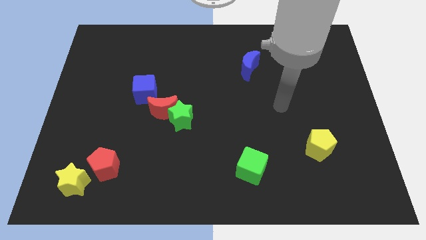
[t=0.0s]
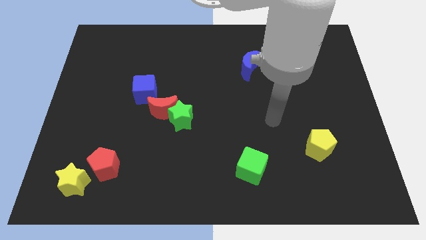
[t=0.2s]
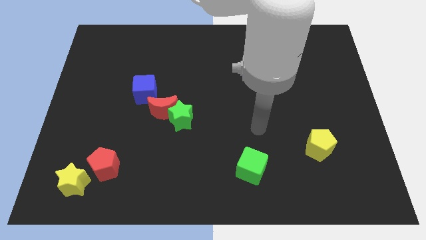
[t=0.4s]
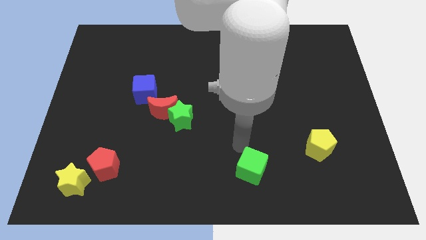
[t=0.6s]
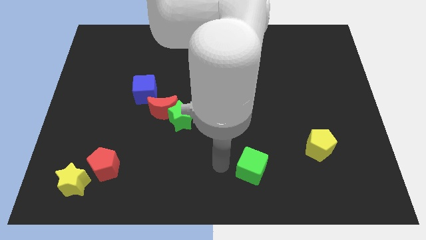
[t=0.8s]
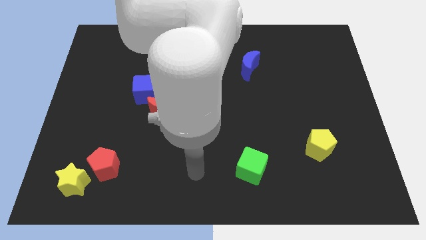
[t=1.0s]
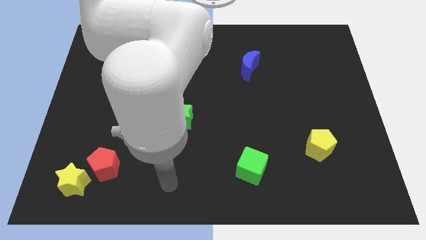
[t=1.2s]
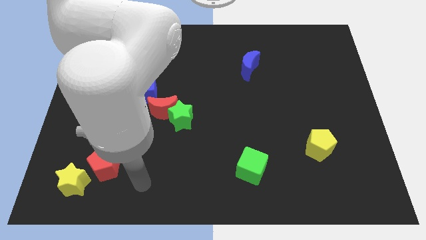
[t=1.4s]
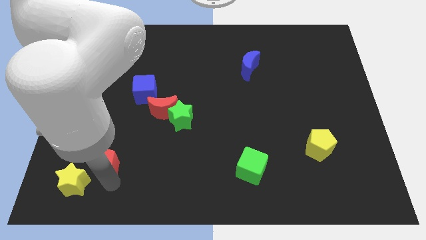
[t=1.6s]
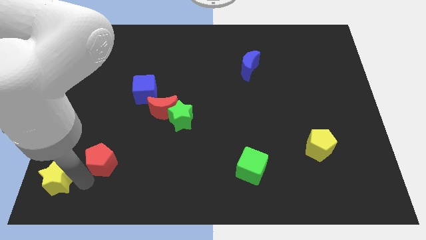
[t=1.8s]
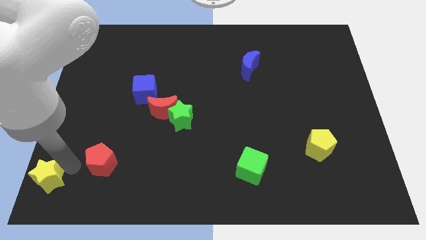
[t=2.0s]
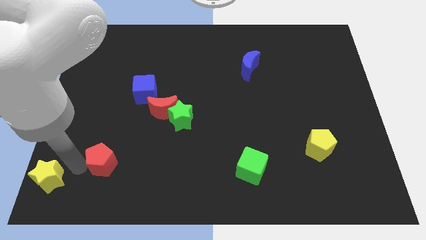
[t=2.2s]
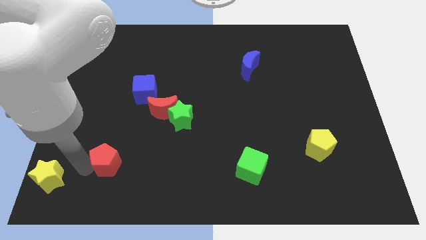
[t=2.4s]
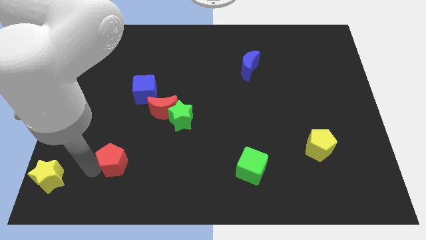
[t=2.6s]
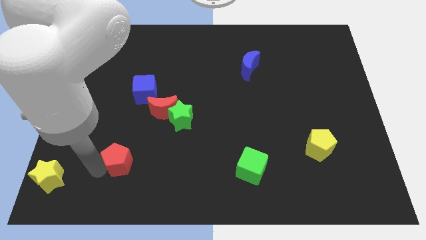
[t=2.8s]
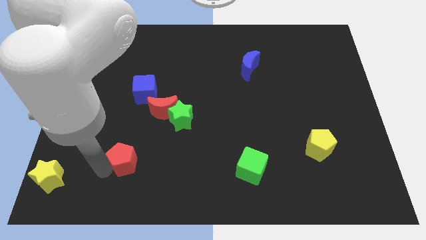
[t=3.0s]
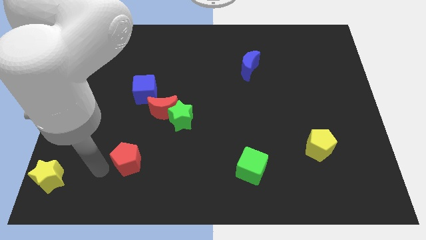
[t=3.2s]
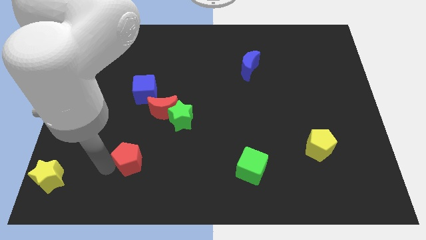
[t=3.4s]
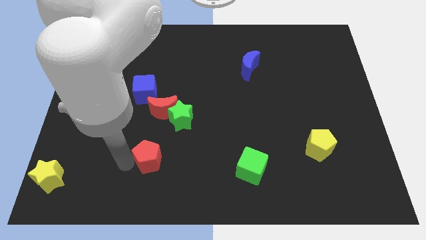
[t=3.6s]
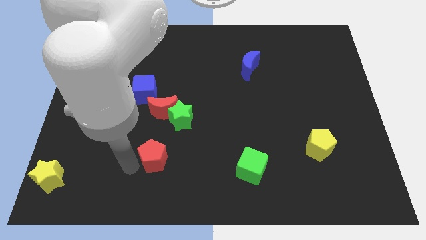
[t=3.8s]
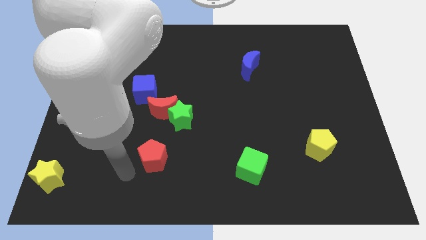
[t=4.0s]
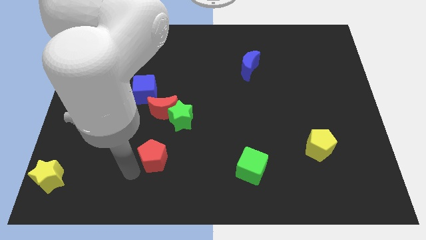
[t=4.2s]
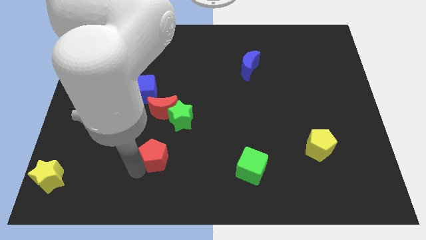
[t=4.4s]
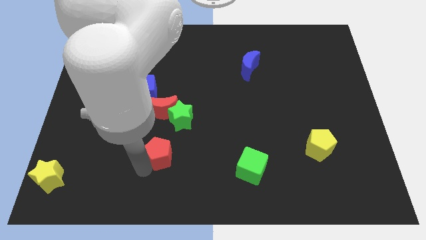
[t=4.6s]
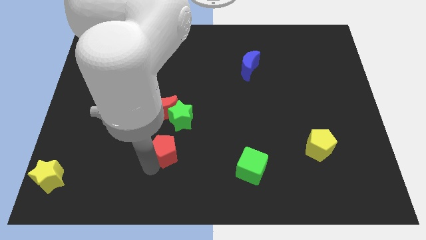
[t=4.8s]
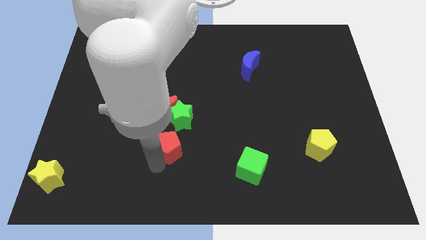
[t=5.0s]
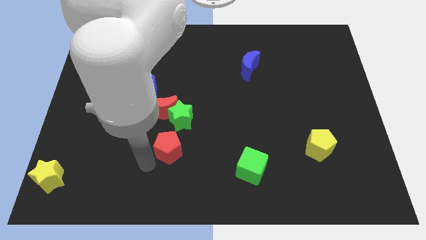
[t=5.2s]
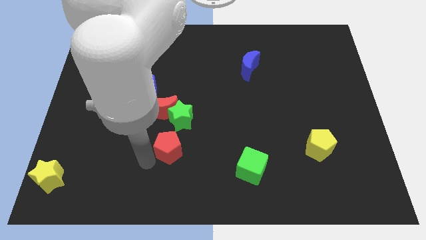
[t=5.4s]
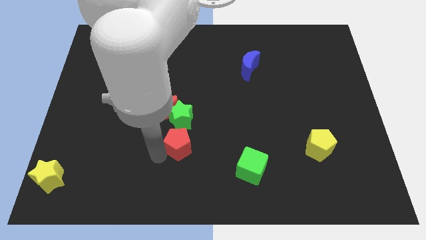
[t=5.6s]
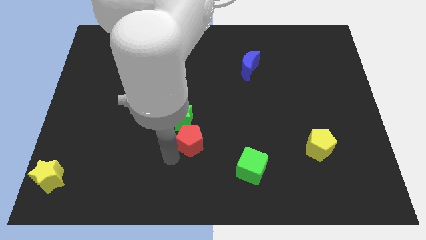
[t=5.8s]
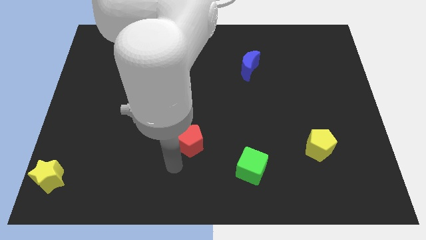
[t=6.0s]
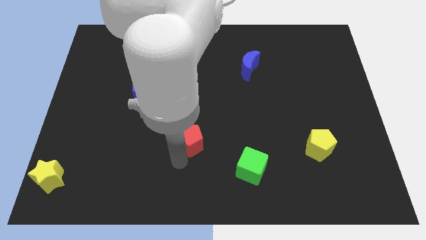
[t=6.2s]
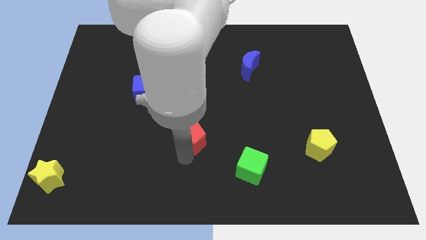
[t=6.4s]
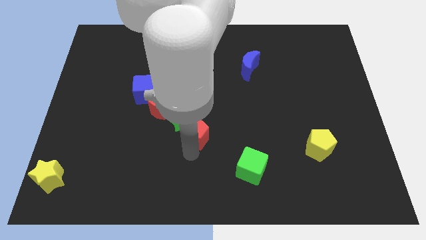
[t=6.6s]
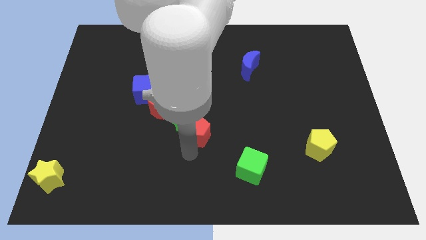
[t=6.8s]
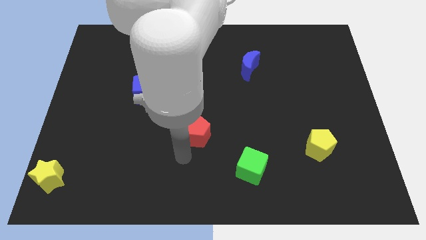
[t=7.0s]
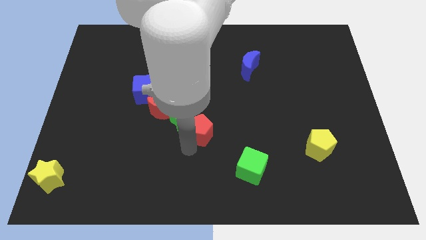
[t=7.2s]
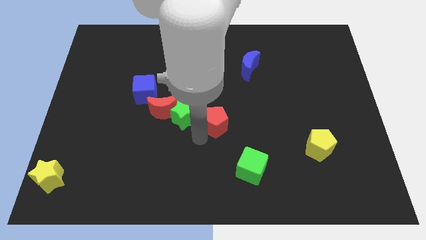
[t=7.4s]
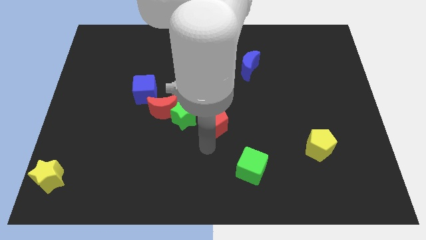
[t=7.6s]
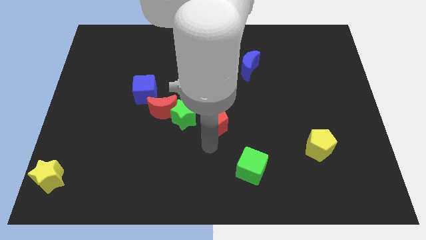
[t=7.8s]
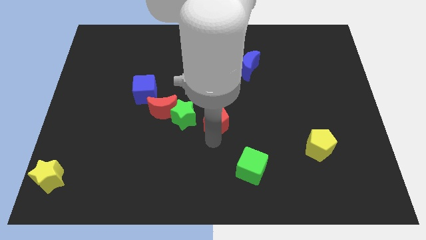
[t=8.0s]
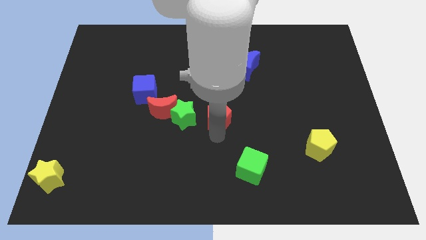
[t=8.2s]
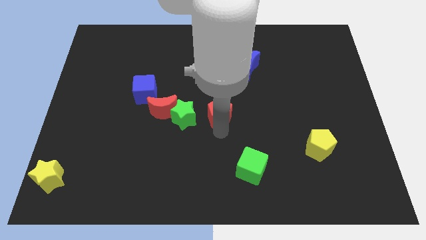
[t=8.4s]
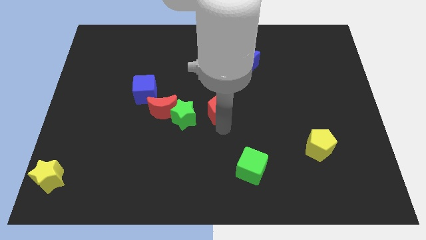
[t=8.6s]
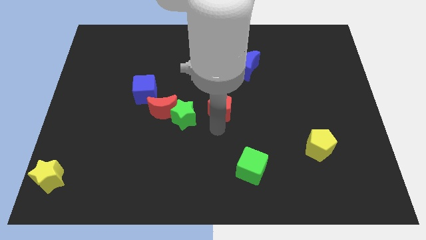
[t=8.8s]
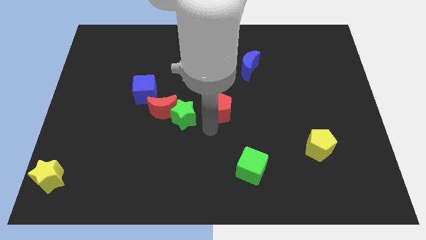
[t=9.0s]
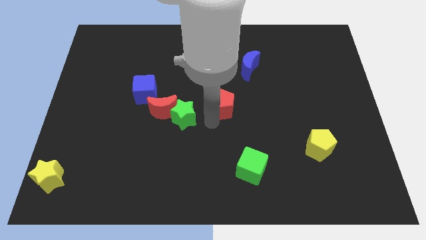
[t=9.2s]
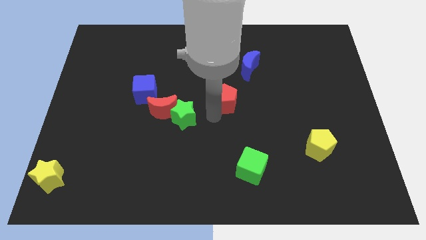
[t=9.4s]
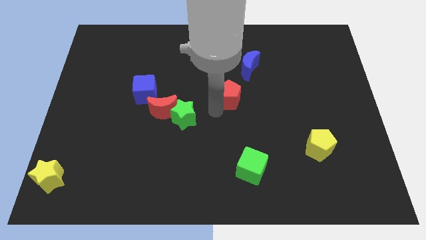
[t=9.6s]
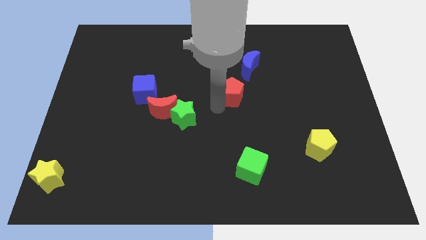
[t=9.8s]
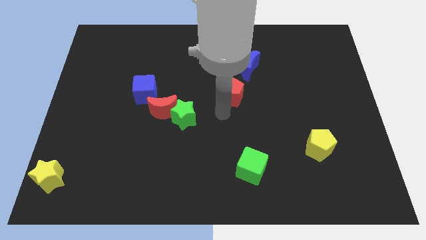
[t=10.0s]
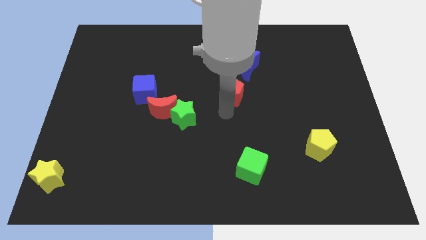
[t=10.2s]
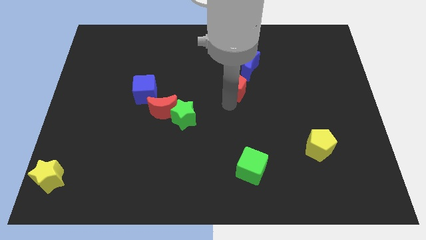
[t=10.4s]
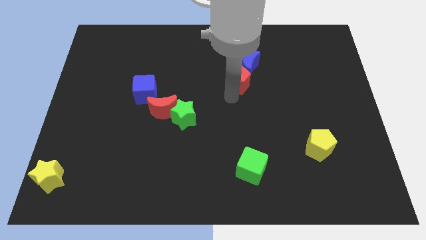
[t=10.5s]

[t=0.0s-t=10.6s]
slide the red pentagon next to the blue moon

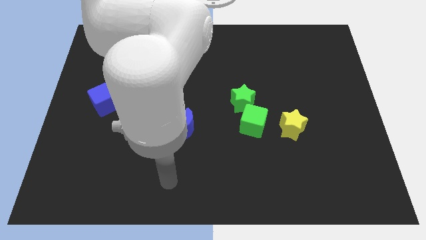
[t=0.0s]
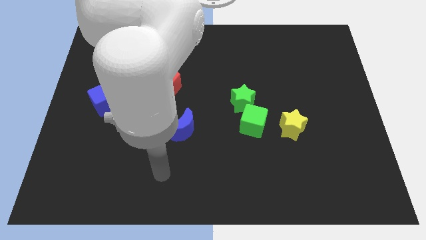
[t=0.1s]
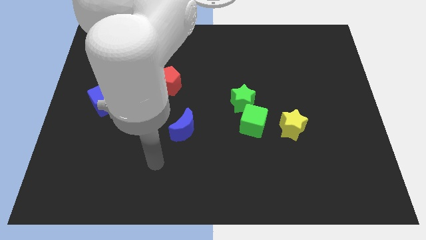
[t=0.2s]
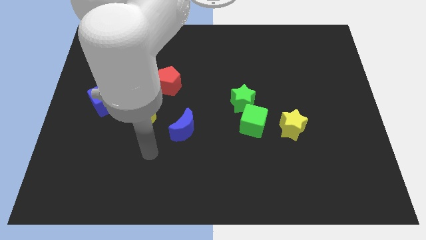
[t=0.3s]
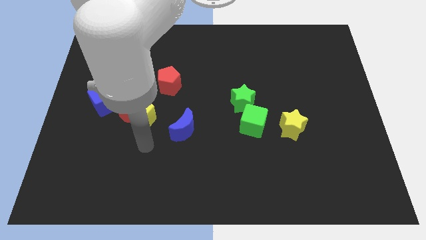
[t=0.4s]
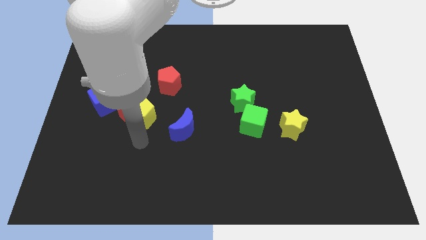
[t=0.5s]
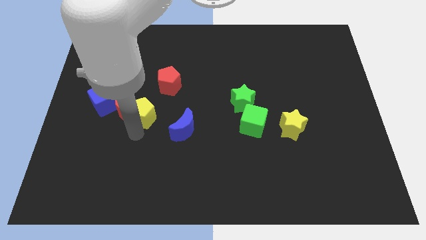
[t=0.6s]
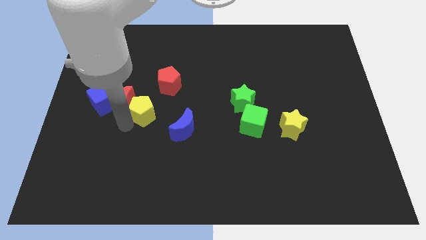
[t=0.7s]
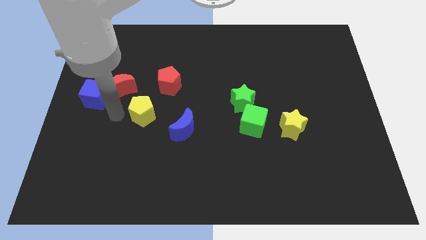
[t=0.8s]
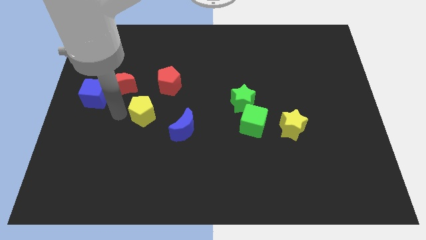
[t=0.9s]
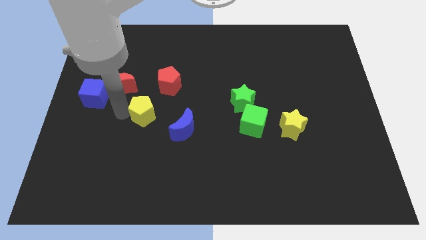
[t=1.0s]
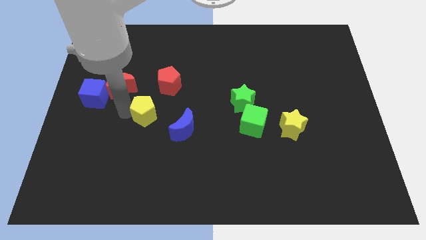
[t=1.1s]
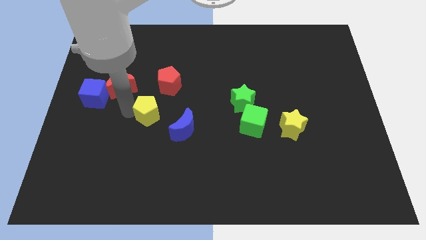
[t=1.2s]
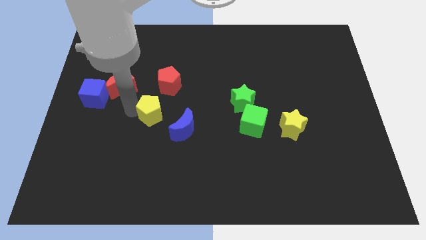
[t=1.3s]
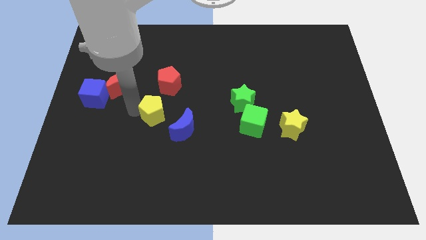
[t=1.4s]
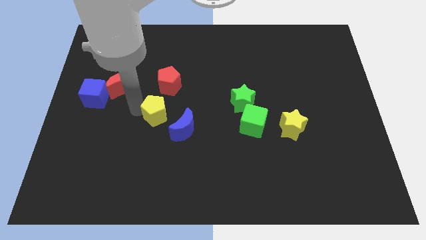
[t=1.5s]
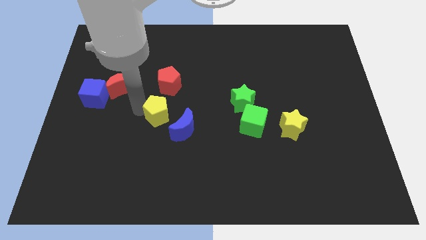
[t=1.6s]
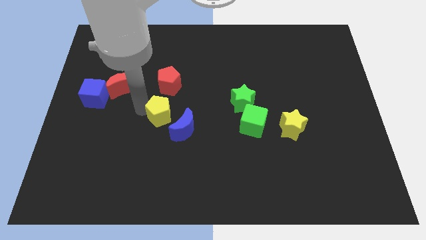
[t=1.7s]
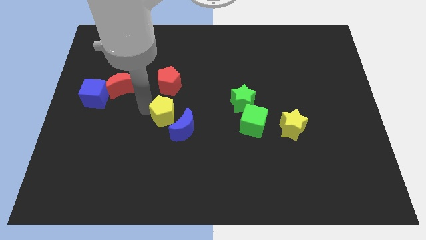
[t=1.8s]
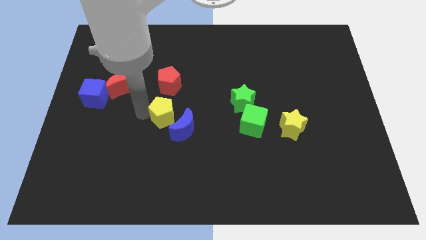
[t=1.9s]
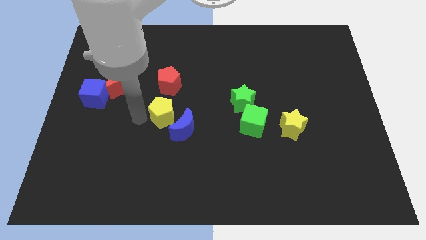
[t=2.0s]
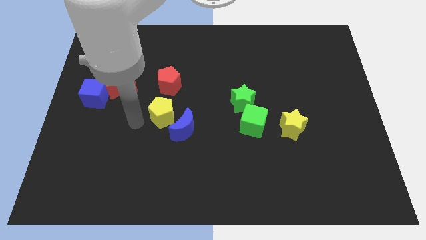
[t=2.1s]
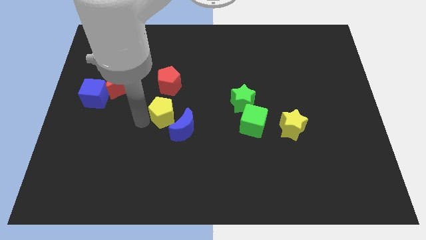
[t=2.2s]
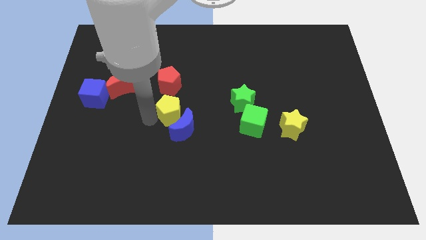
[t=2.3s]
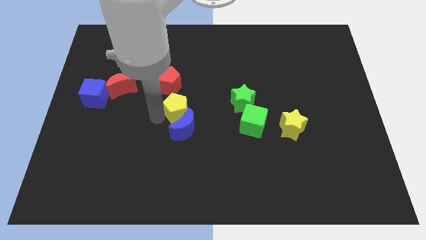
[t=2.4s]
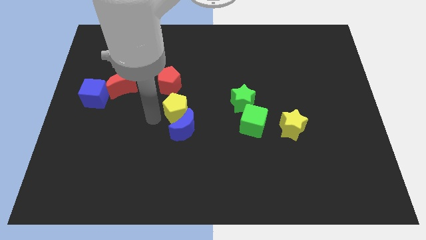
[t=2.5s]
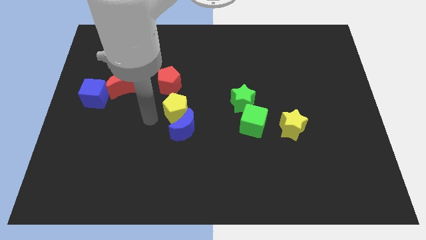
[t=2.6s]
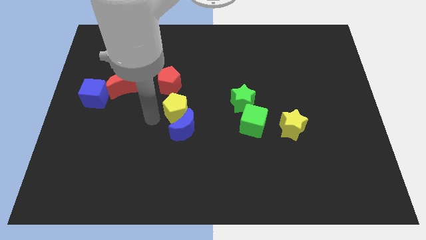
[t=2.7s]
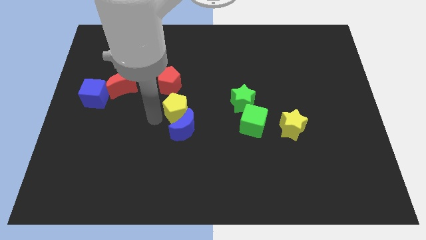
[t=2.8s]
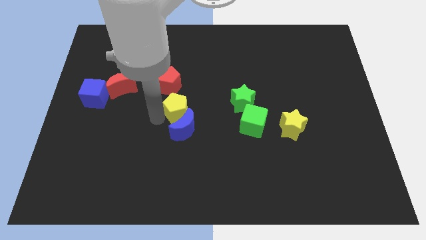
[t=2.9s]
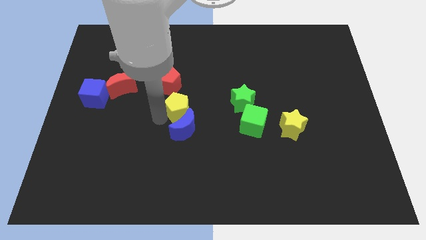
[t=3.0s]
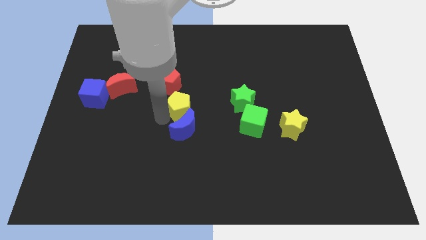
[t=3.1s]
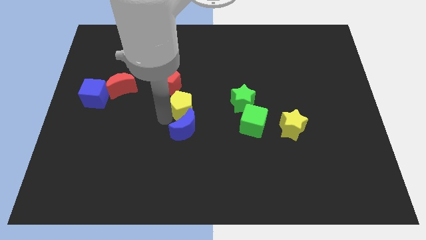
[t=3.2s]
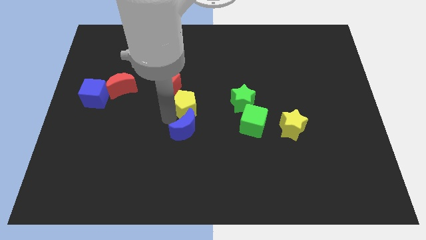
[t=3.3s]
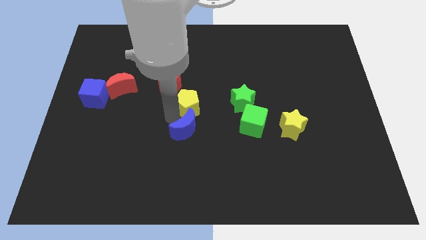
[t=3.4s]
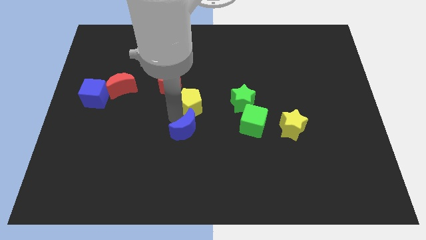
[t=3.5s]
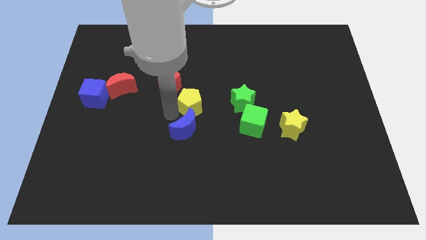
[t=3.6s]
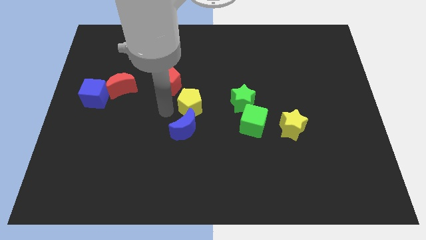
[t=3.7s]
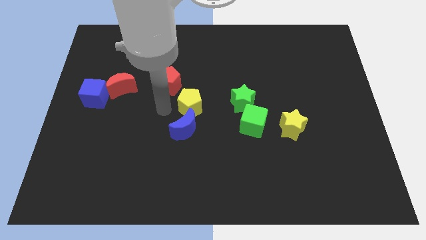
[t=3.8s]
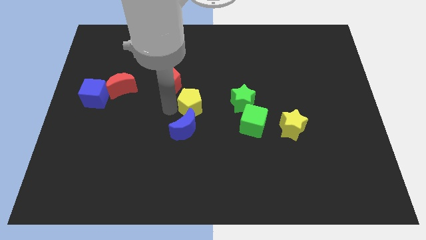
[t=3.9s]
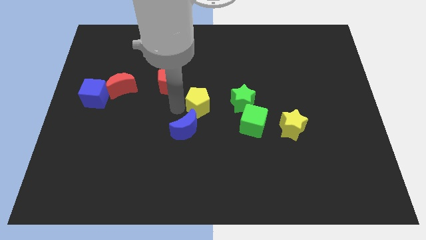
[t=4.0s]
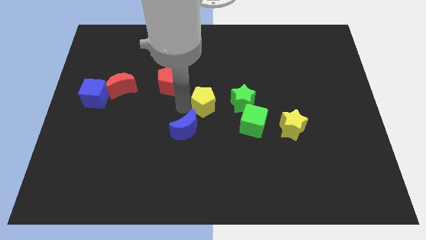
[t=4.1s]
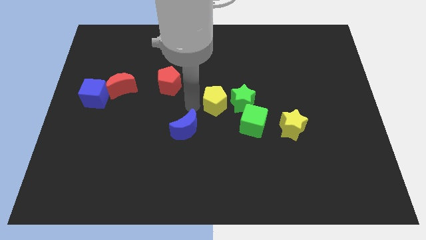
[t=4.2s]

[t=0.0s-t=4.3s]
slide the yellow pentagon to the green star
